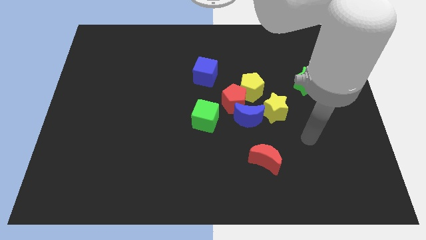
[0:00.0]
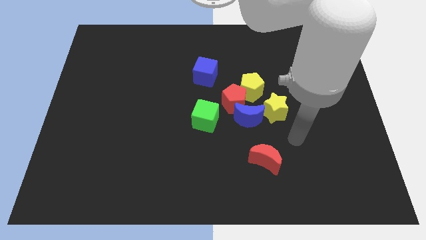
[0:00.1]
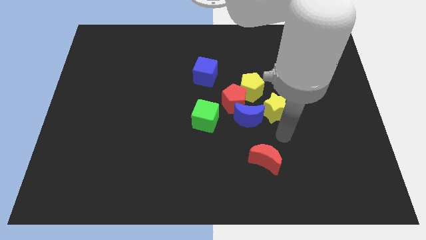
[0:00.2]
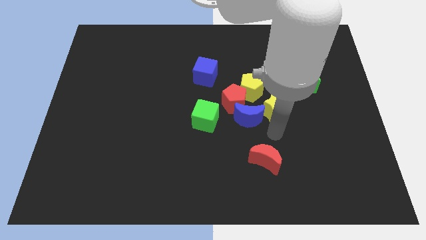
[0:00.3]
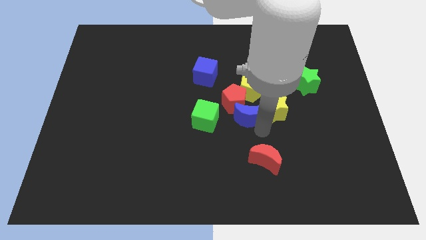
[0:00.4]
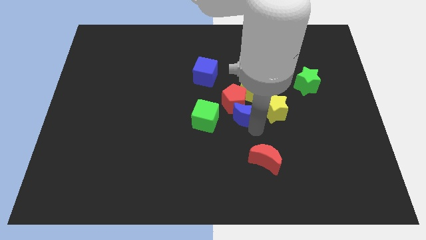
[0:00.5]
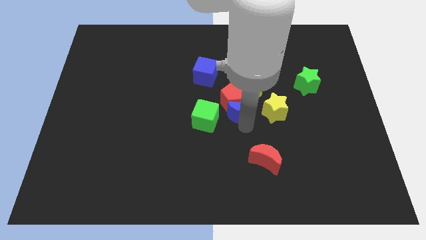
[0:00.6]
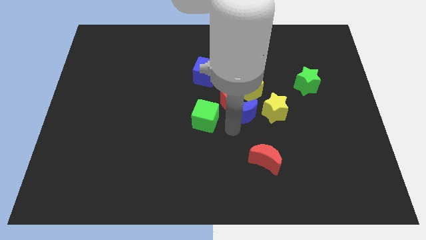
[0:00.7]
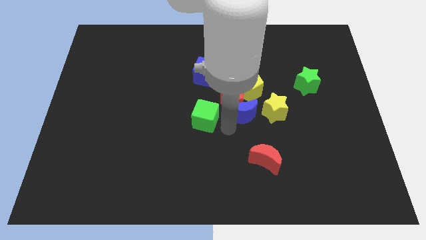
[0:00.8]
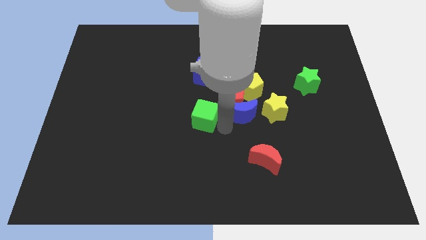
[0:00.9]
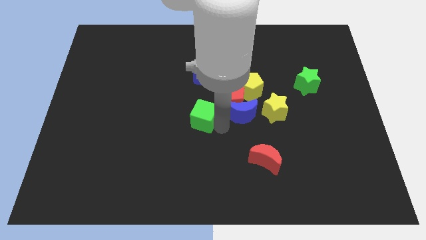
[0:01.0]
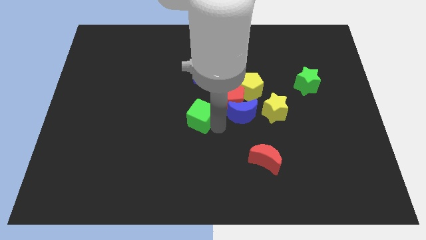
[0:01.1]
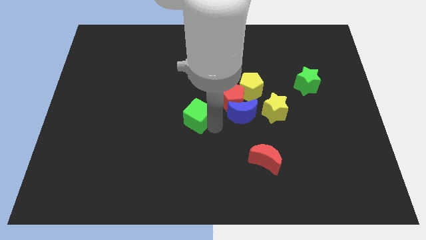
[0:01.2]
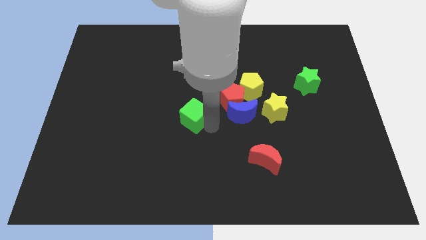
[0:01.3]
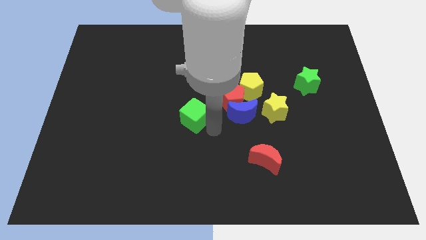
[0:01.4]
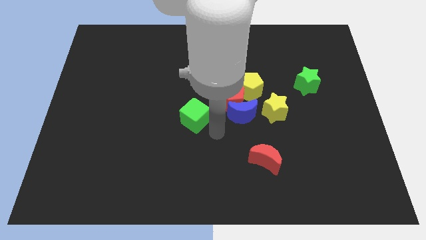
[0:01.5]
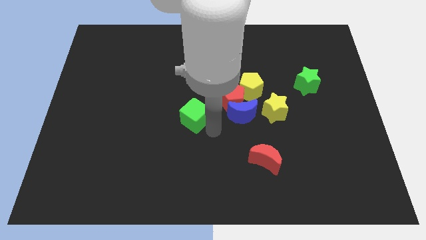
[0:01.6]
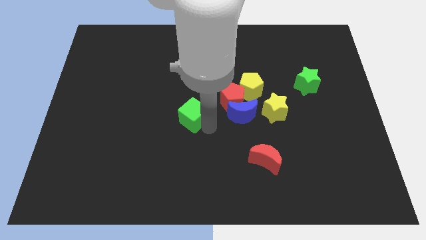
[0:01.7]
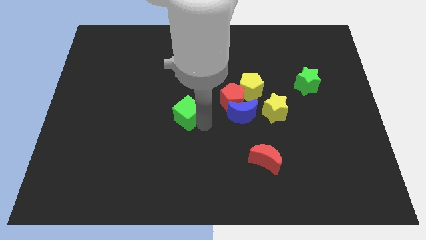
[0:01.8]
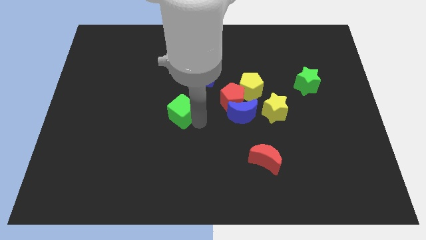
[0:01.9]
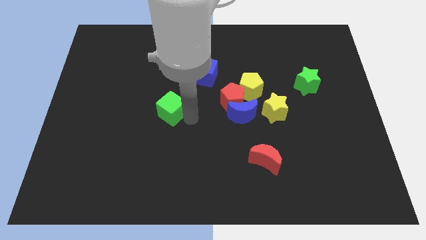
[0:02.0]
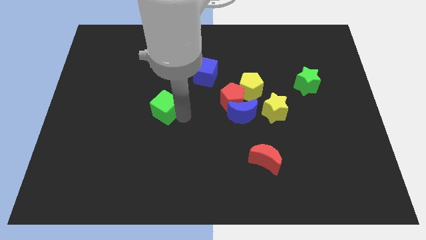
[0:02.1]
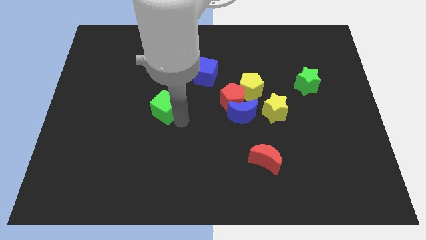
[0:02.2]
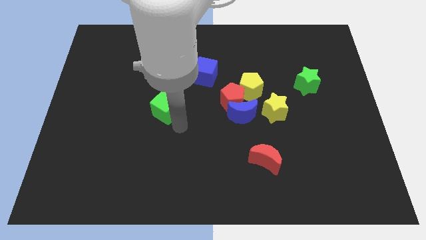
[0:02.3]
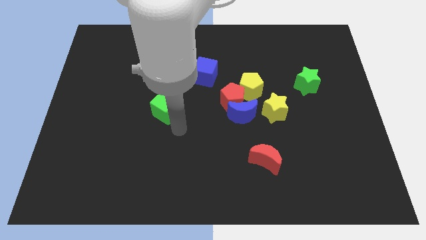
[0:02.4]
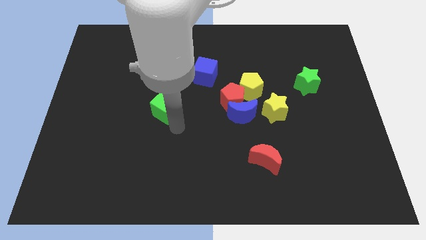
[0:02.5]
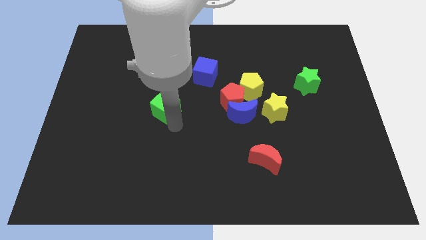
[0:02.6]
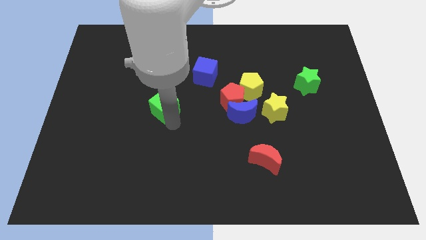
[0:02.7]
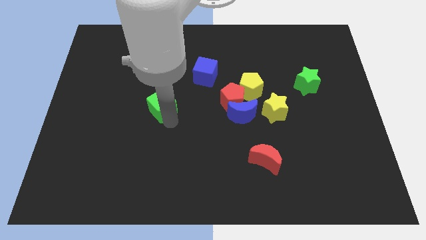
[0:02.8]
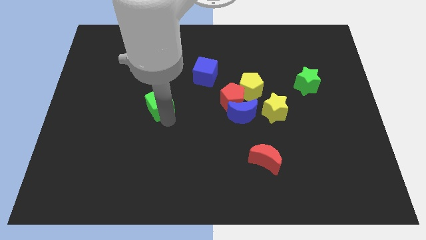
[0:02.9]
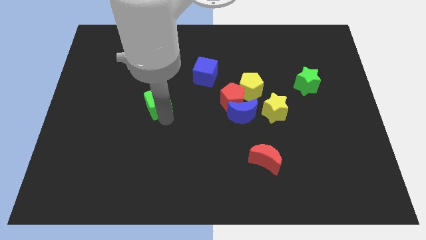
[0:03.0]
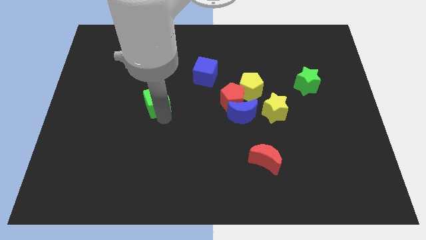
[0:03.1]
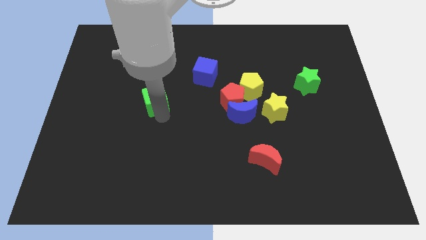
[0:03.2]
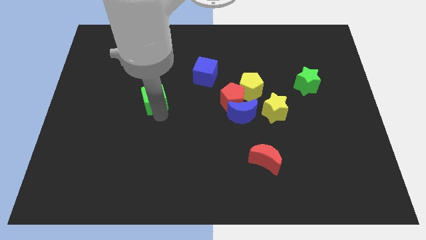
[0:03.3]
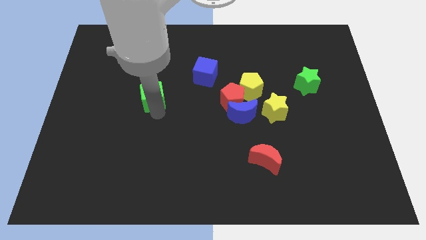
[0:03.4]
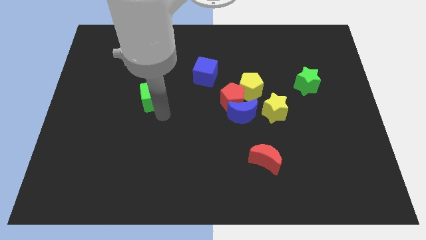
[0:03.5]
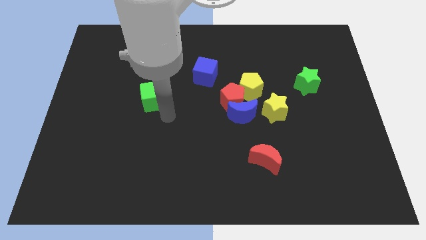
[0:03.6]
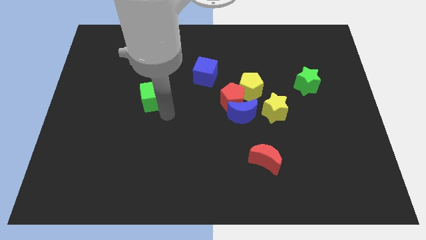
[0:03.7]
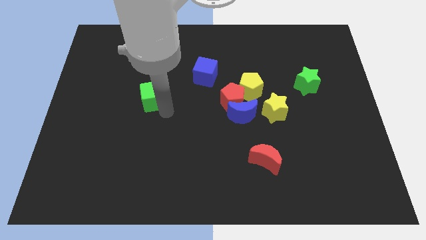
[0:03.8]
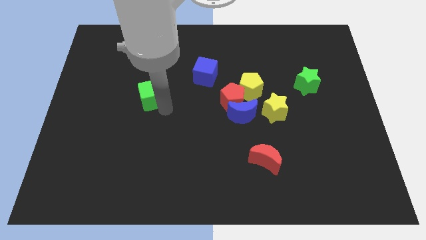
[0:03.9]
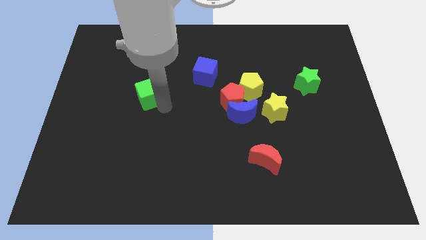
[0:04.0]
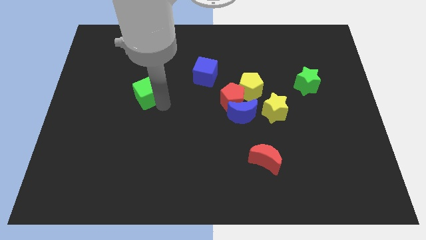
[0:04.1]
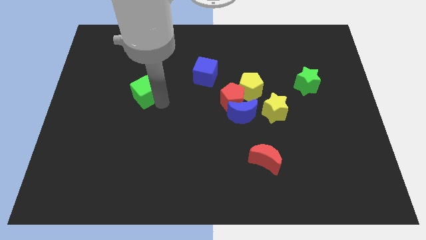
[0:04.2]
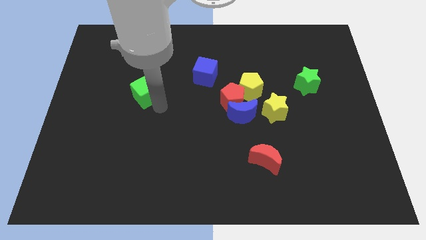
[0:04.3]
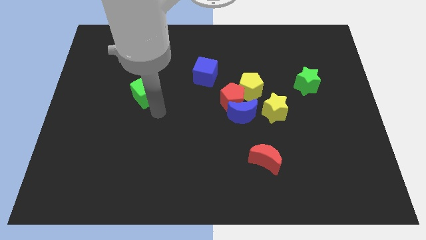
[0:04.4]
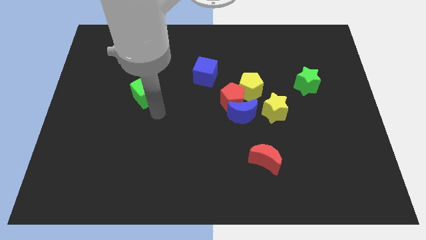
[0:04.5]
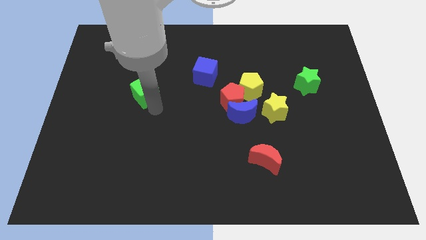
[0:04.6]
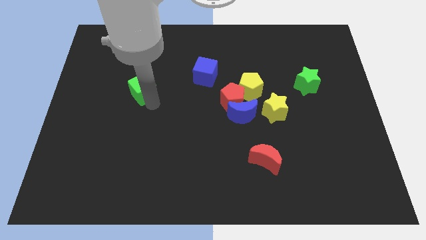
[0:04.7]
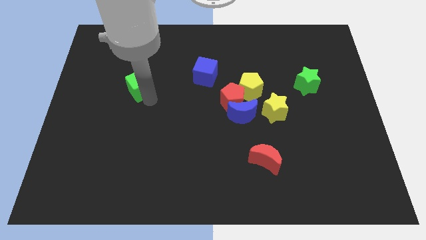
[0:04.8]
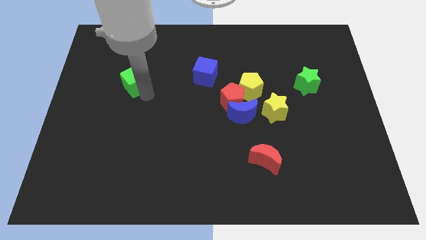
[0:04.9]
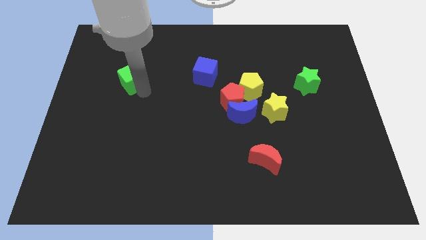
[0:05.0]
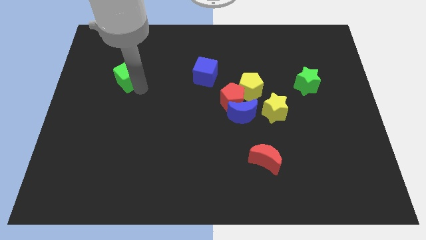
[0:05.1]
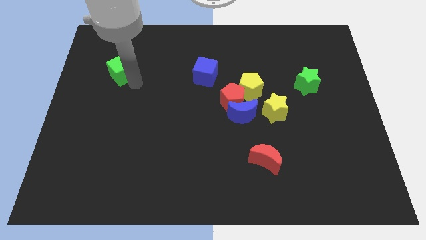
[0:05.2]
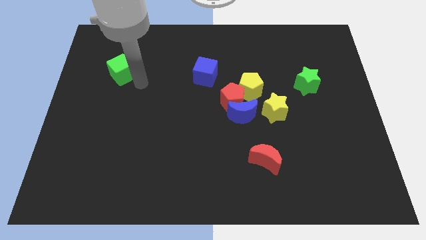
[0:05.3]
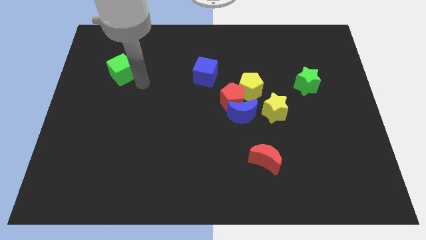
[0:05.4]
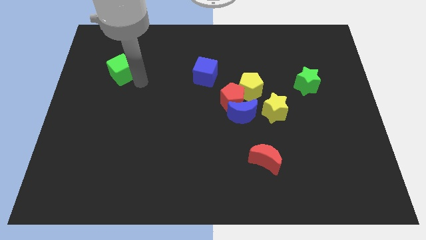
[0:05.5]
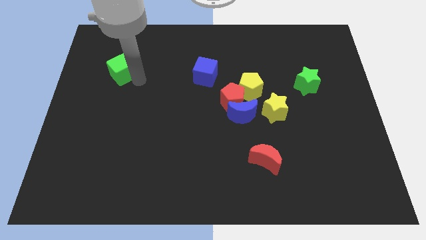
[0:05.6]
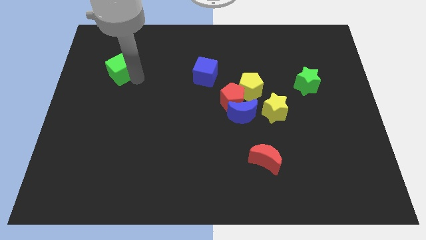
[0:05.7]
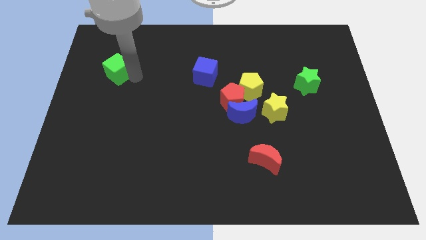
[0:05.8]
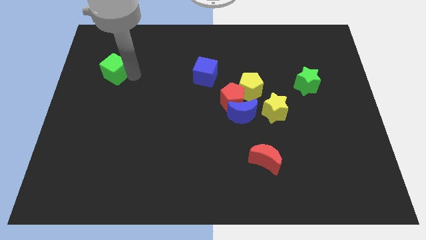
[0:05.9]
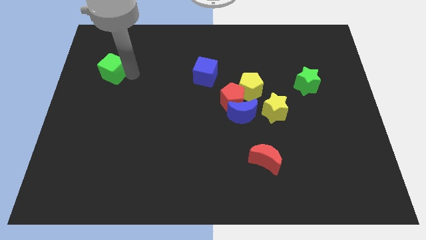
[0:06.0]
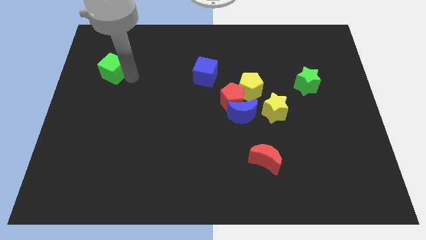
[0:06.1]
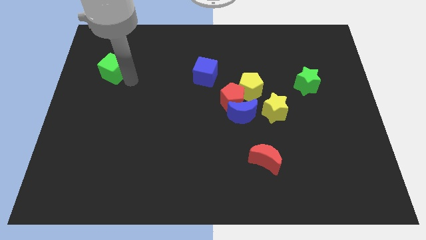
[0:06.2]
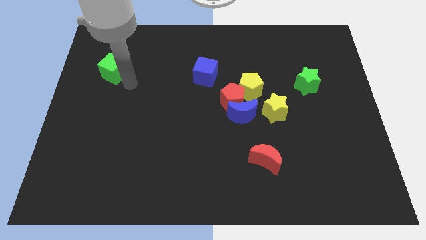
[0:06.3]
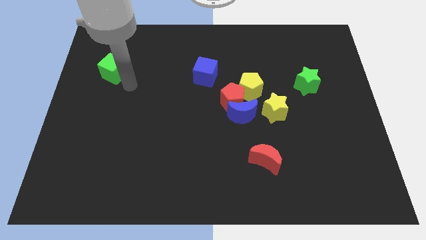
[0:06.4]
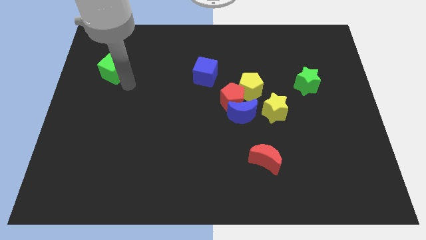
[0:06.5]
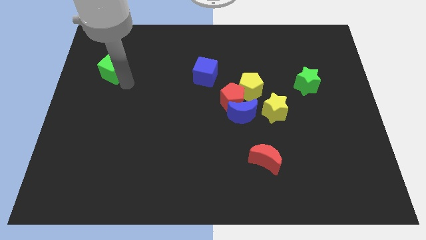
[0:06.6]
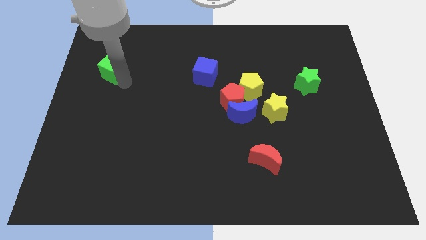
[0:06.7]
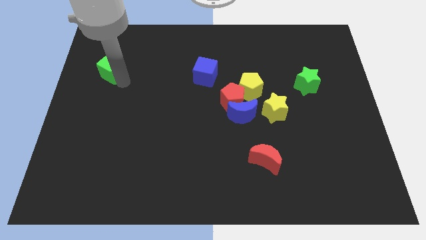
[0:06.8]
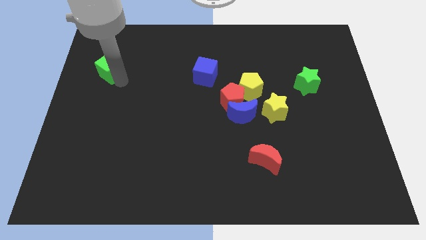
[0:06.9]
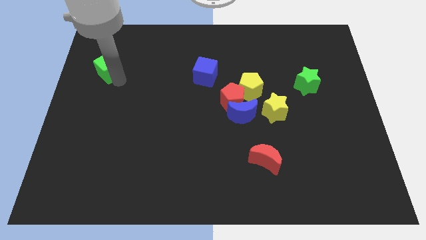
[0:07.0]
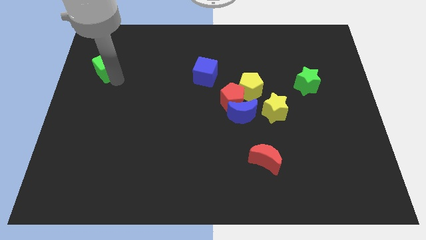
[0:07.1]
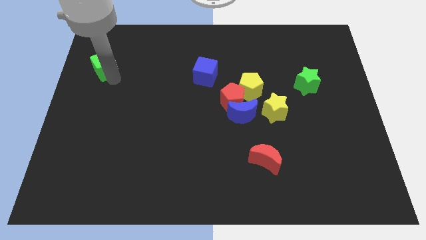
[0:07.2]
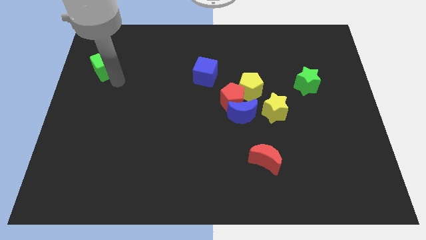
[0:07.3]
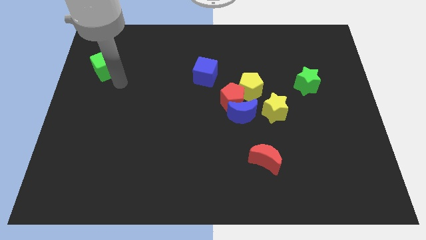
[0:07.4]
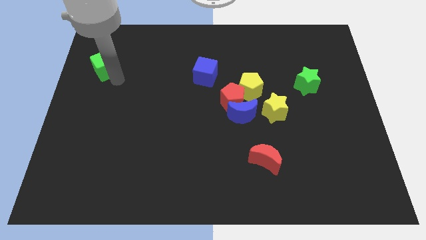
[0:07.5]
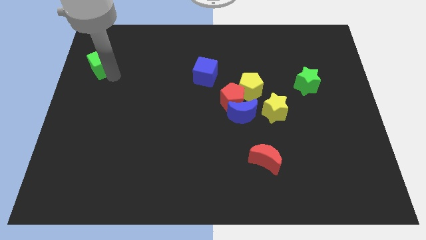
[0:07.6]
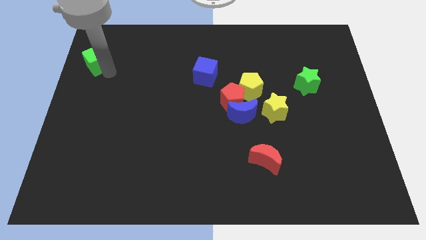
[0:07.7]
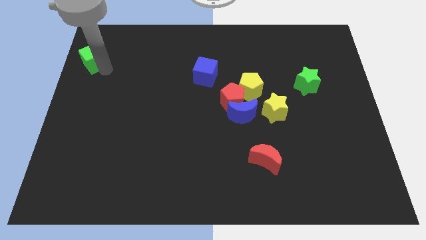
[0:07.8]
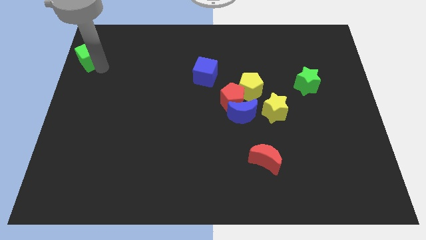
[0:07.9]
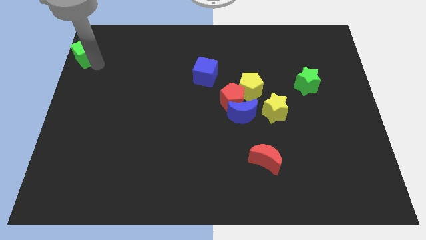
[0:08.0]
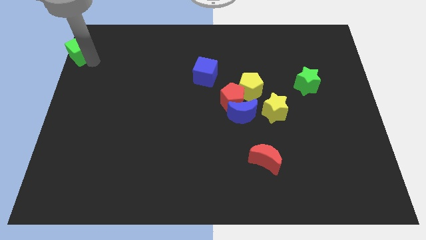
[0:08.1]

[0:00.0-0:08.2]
move the green cube to the top left
